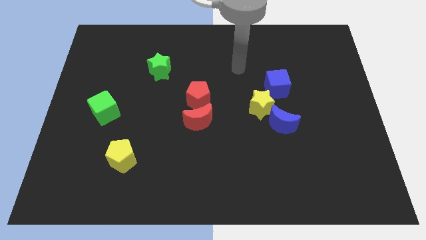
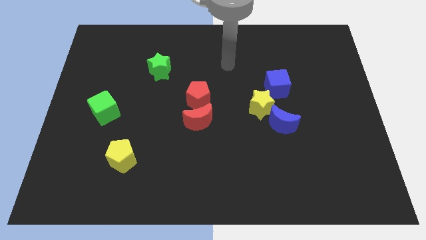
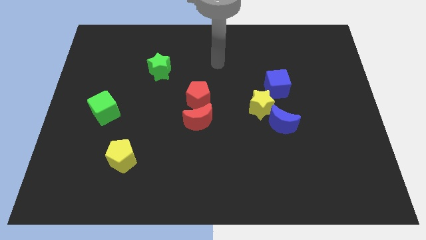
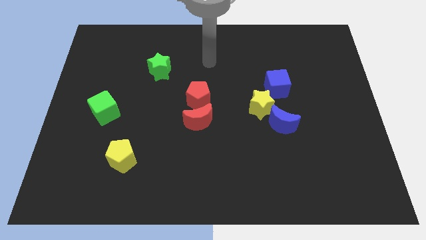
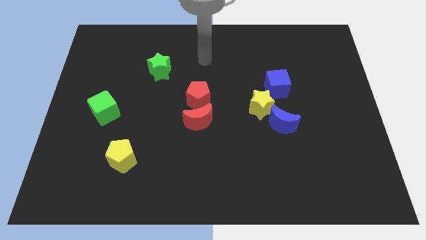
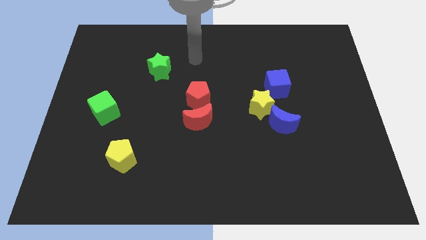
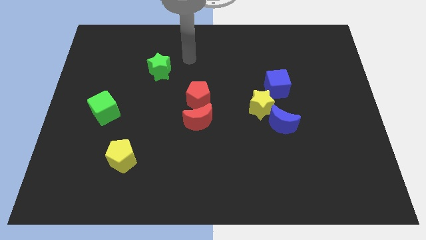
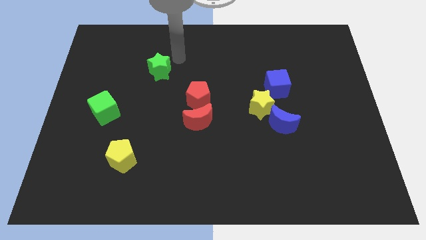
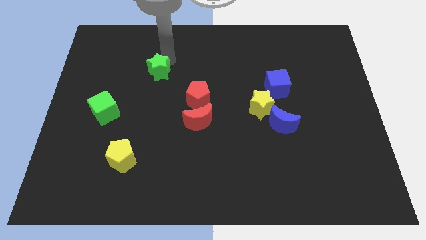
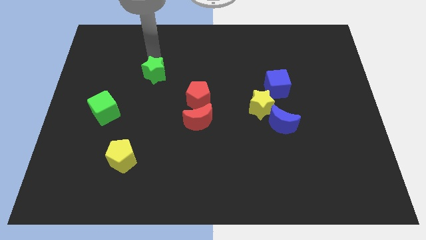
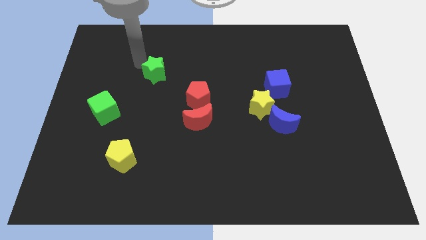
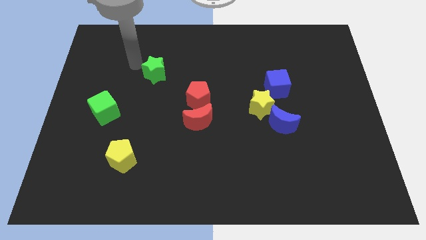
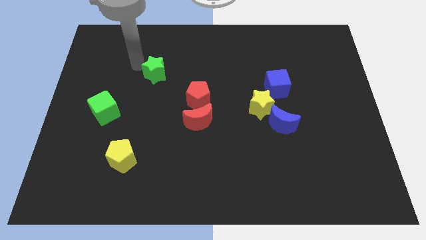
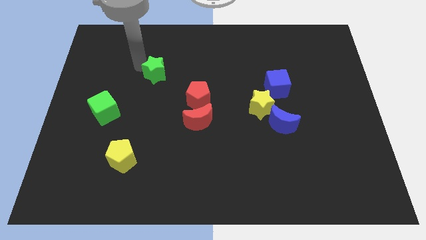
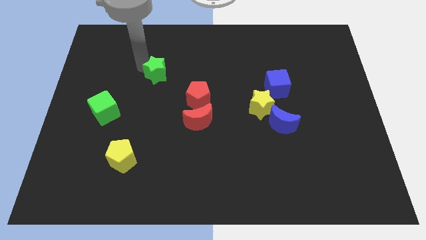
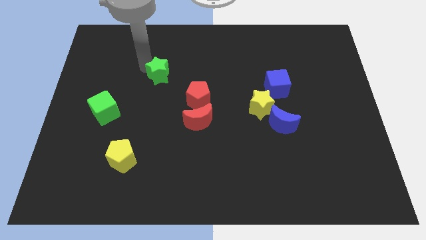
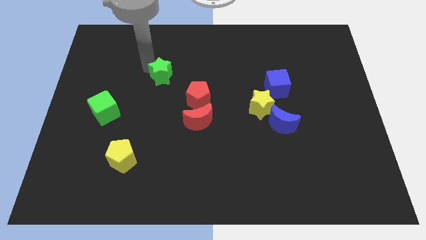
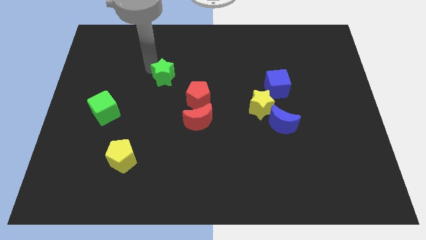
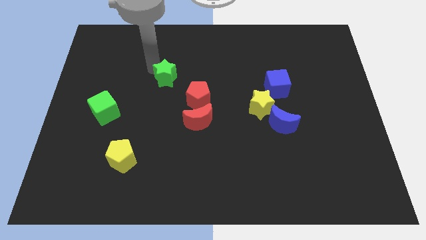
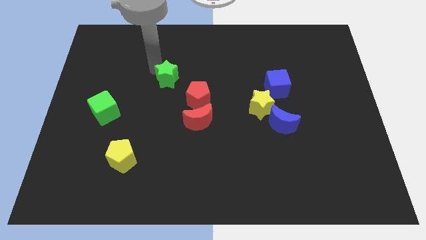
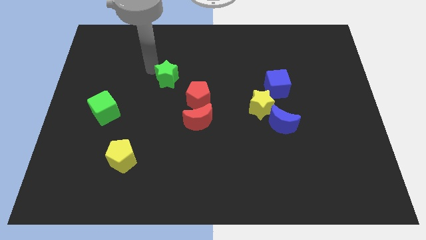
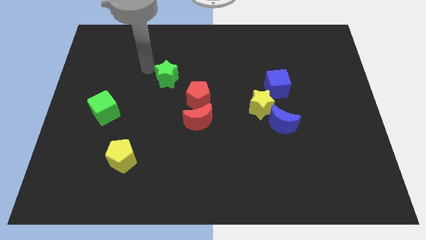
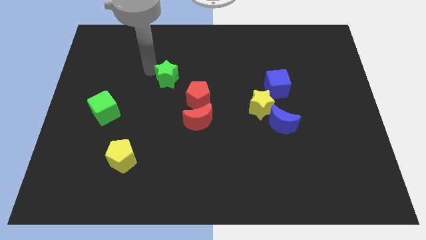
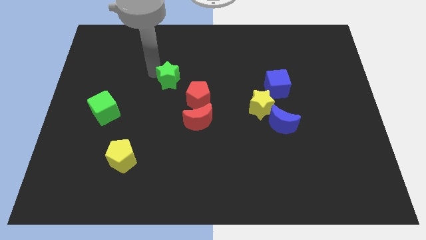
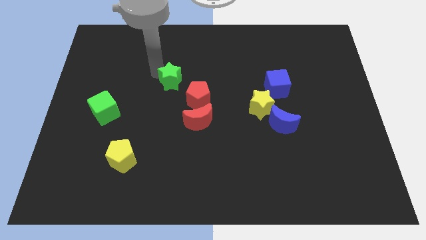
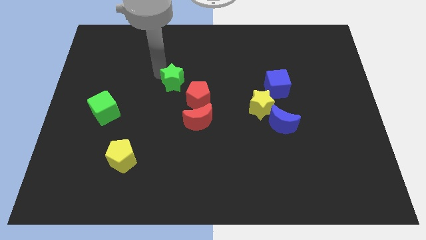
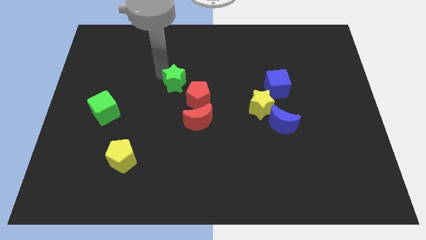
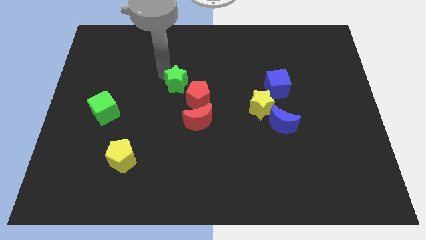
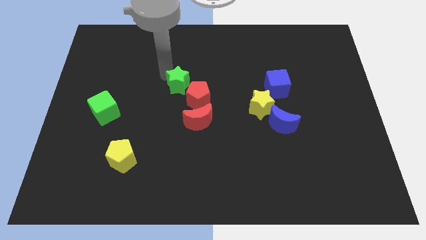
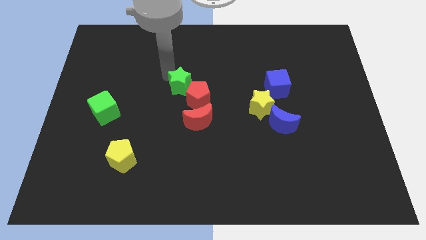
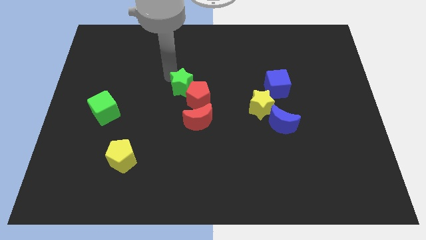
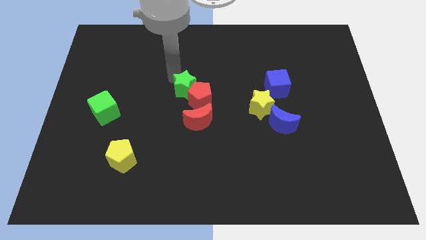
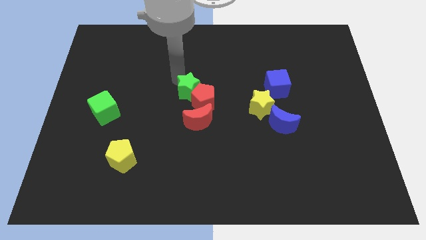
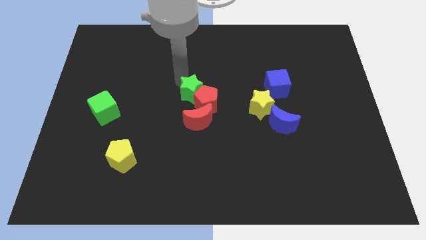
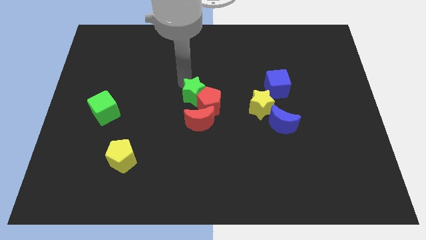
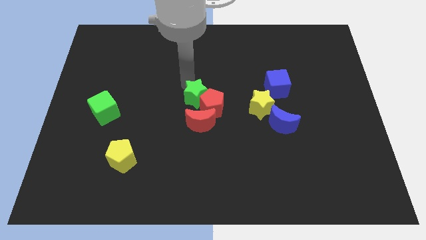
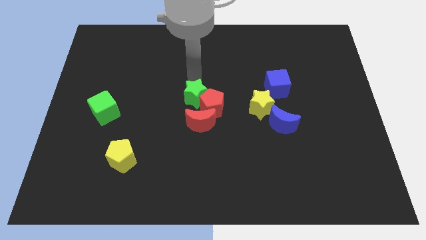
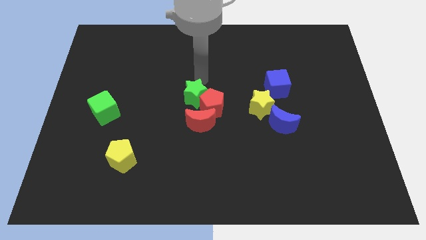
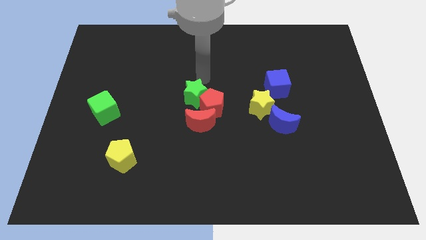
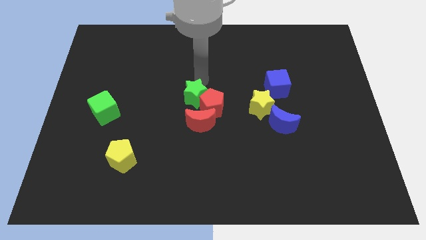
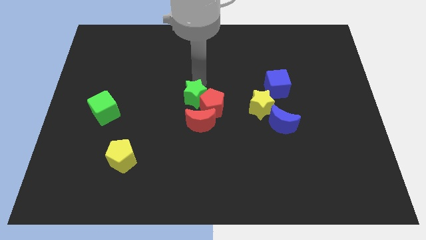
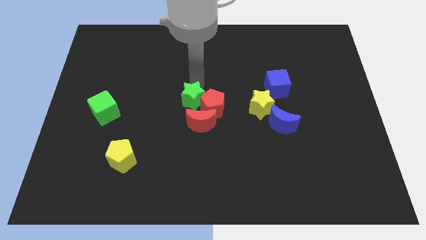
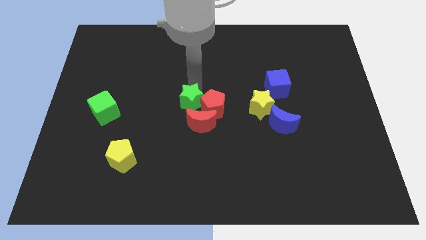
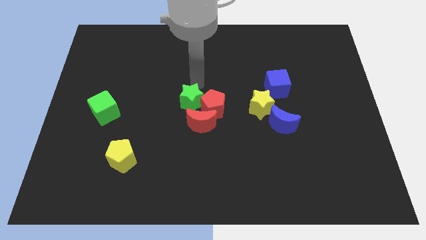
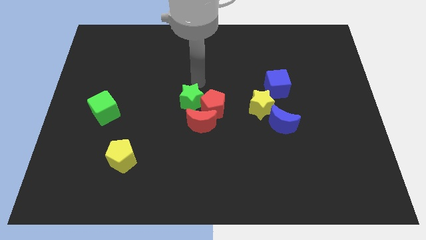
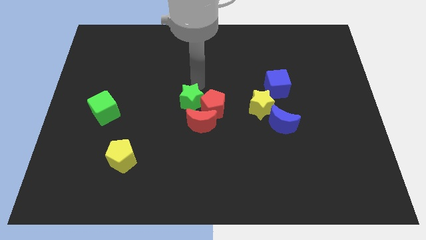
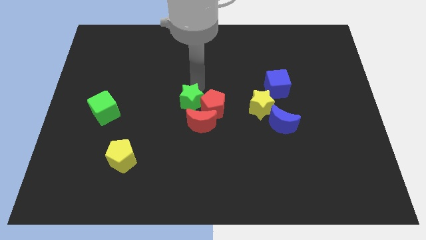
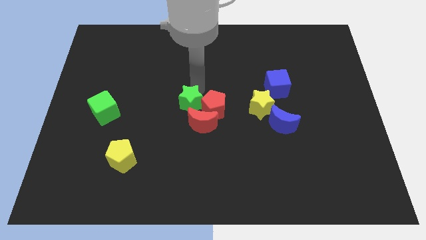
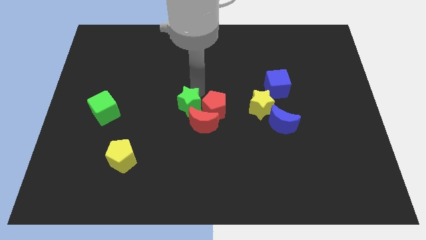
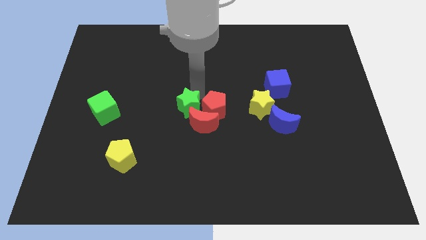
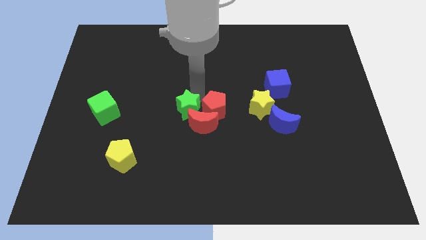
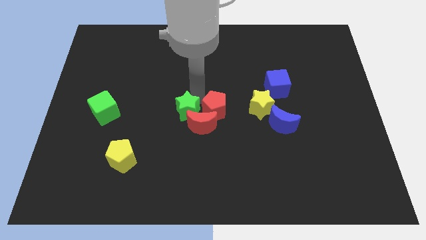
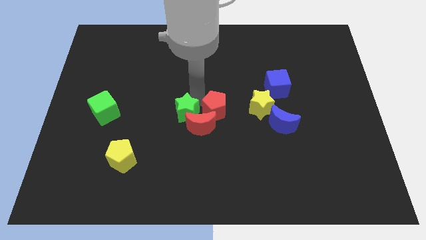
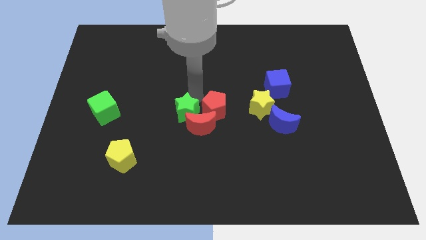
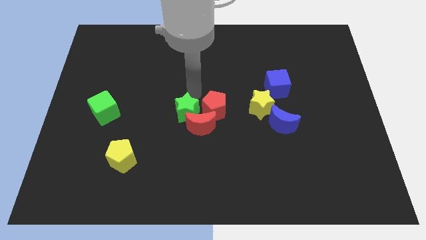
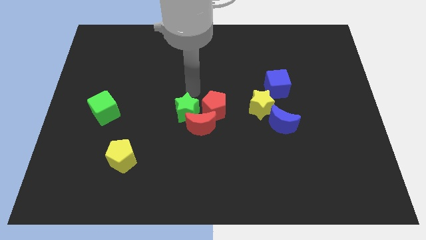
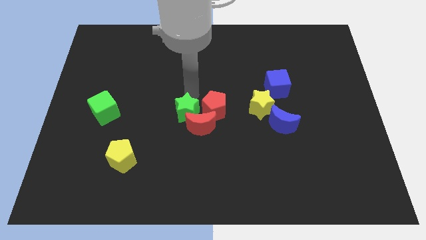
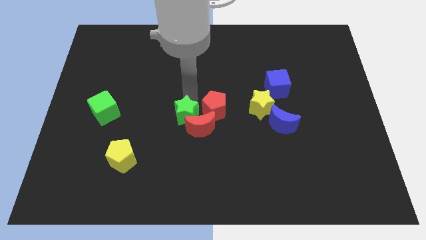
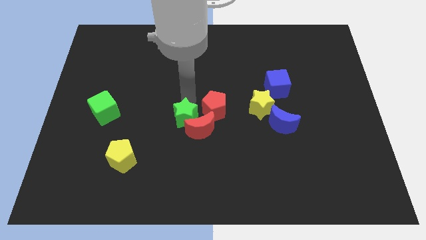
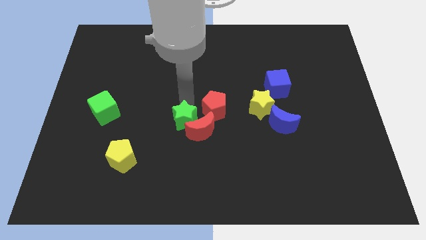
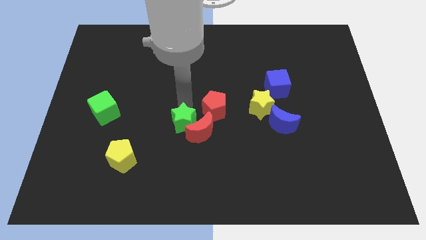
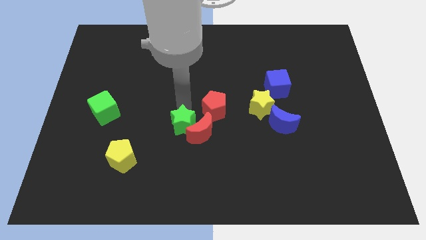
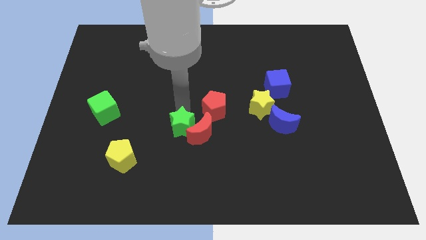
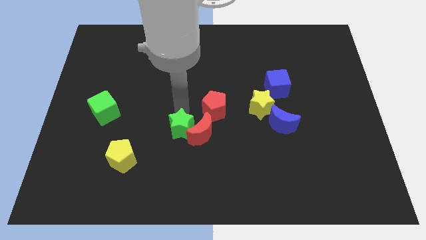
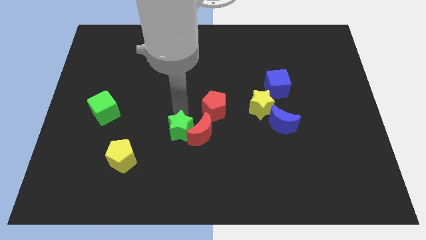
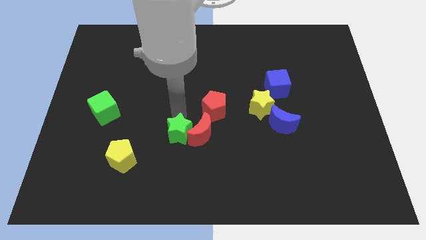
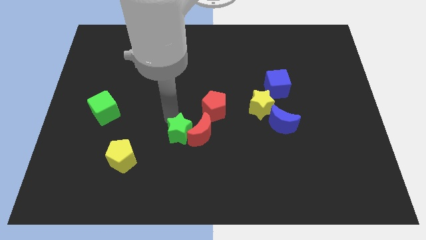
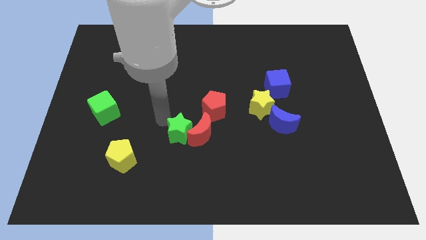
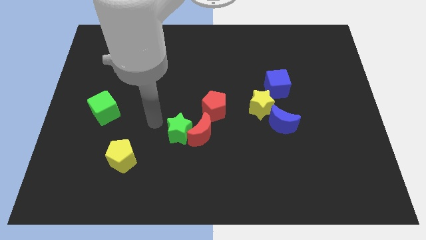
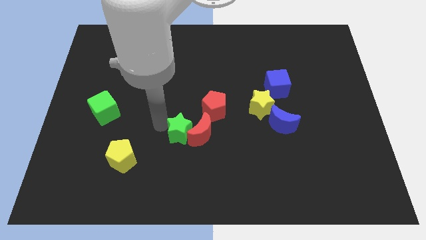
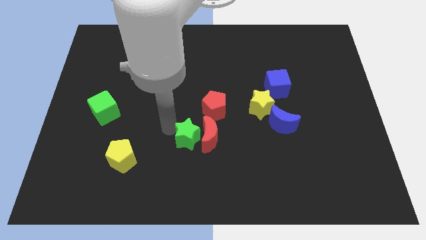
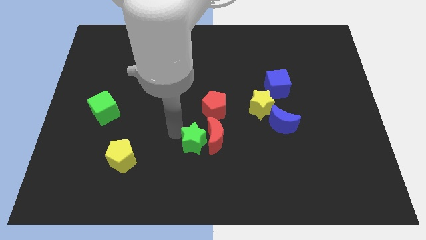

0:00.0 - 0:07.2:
slide the green star below the red pentagon
